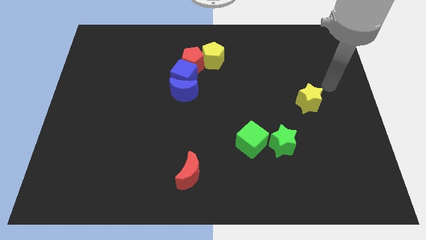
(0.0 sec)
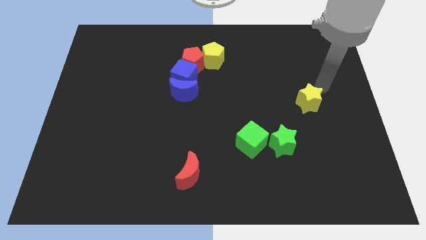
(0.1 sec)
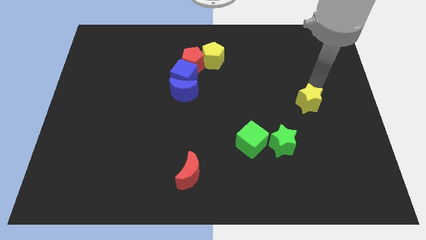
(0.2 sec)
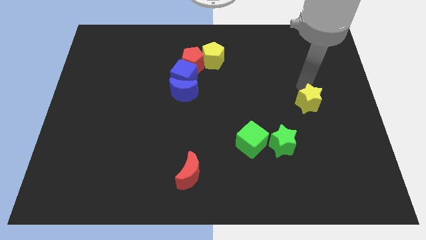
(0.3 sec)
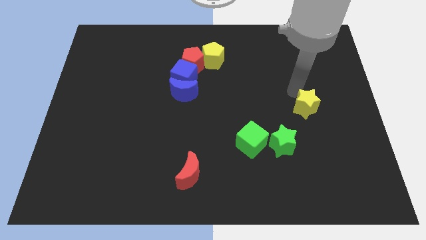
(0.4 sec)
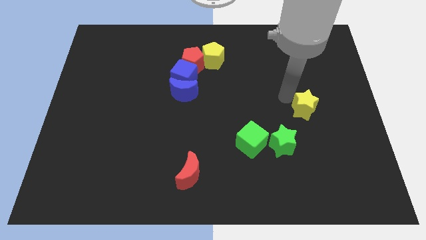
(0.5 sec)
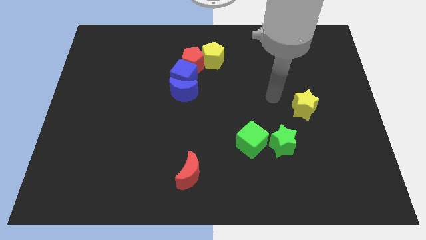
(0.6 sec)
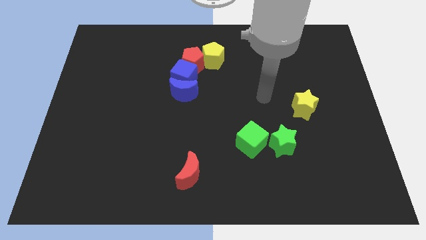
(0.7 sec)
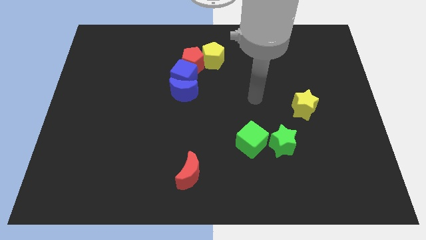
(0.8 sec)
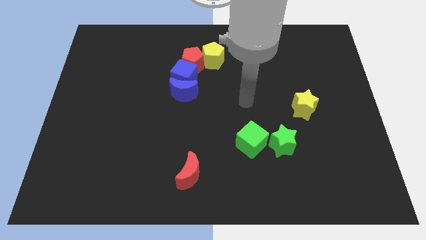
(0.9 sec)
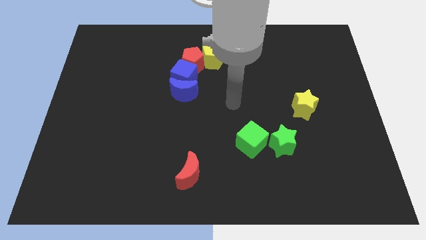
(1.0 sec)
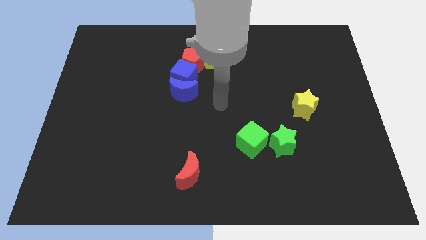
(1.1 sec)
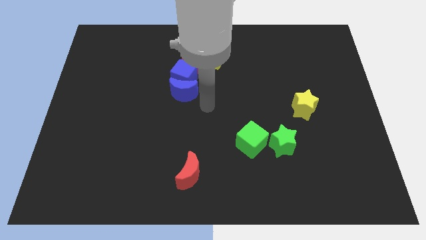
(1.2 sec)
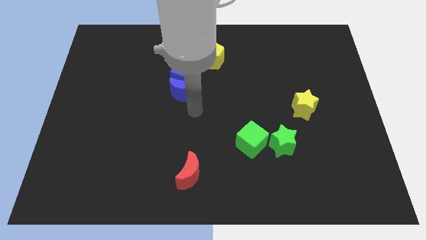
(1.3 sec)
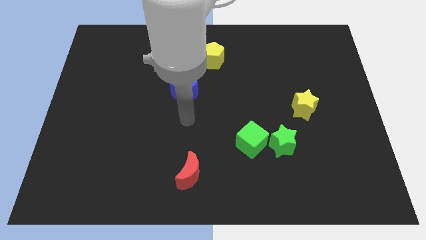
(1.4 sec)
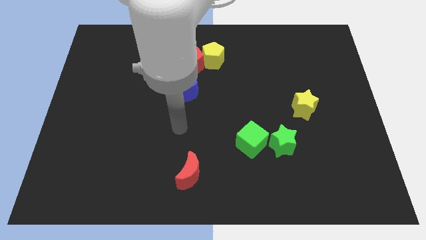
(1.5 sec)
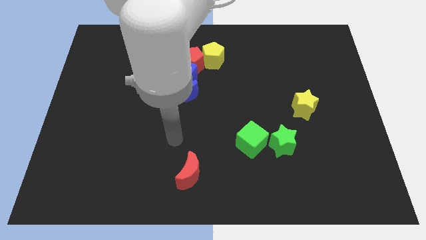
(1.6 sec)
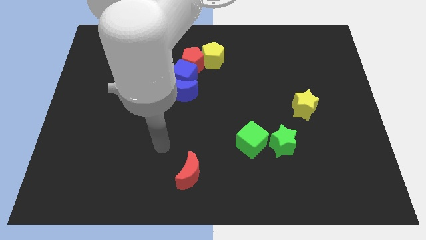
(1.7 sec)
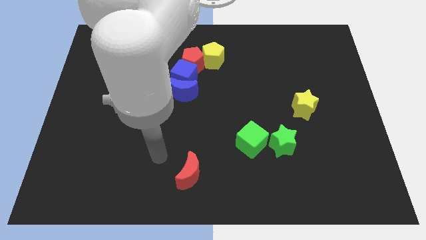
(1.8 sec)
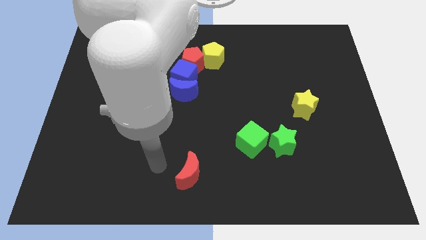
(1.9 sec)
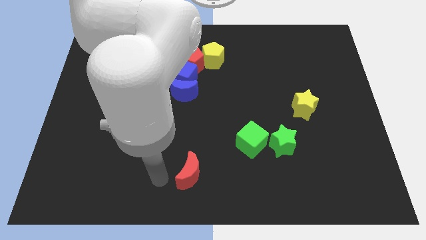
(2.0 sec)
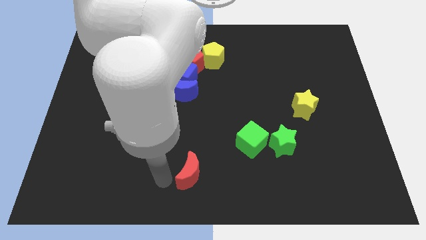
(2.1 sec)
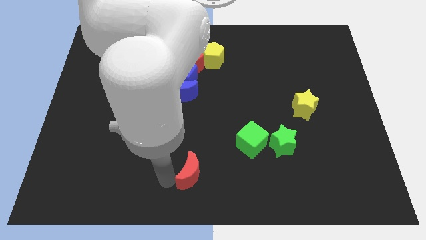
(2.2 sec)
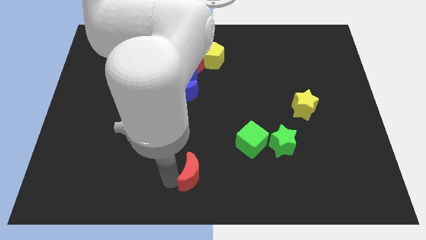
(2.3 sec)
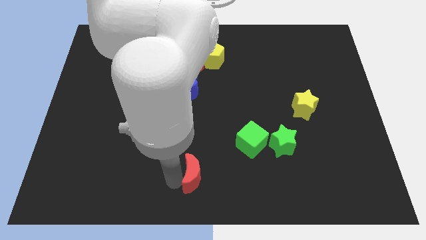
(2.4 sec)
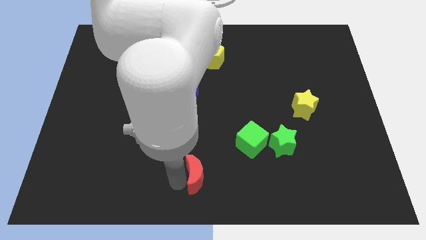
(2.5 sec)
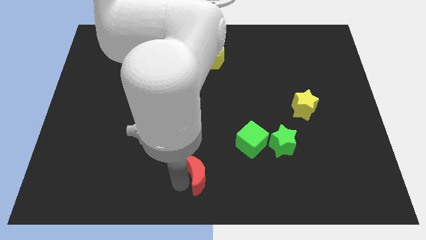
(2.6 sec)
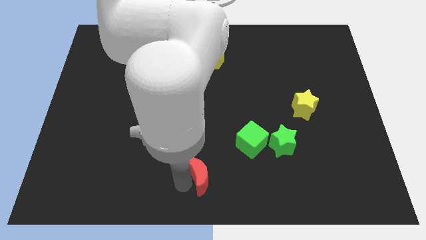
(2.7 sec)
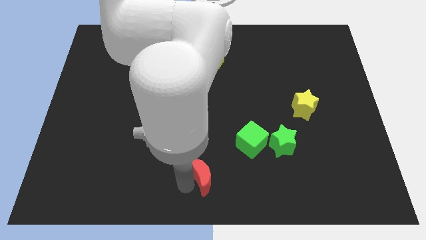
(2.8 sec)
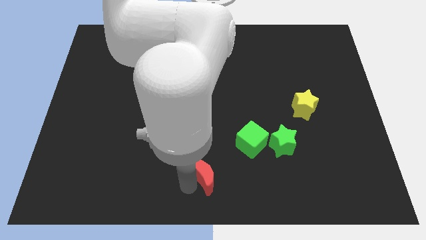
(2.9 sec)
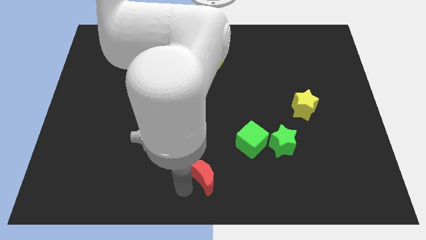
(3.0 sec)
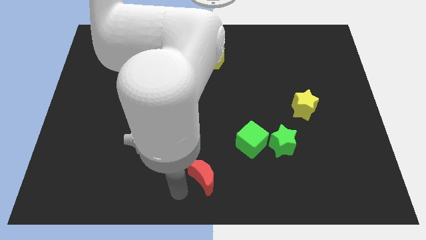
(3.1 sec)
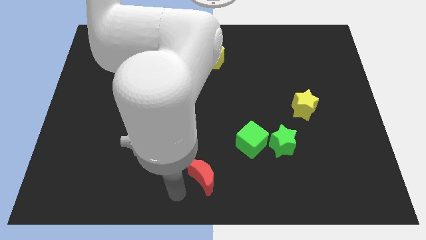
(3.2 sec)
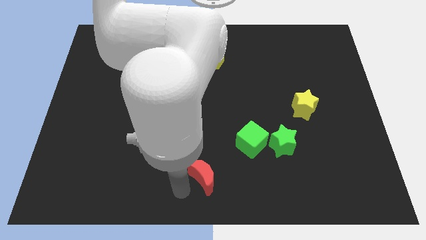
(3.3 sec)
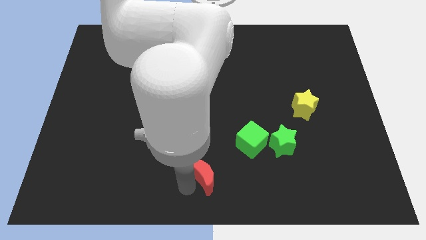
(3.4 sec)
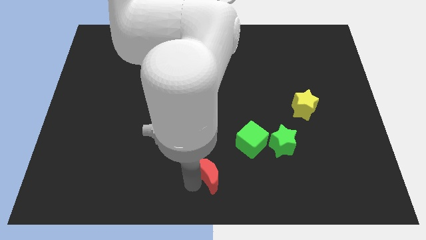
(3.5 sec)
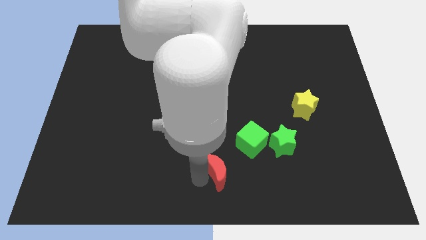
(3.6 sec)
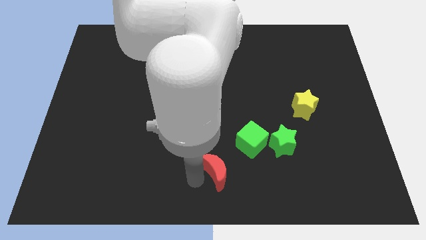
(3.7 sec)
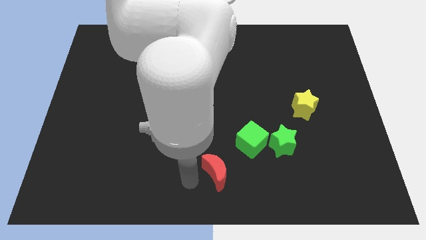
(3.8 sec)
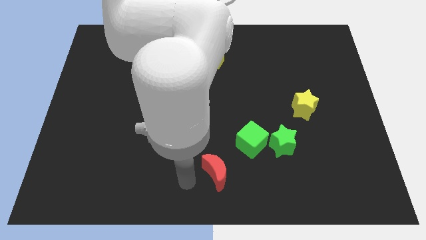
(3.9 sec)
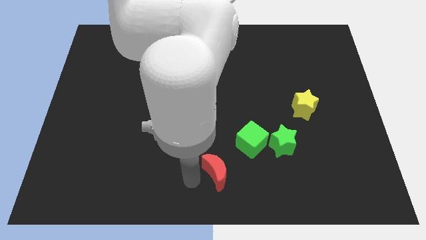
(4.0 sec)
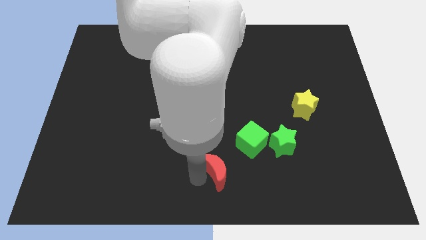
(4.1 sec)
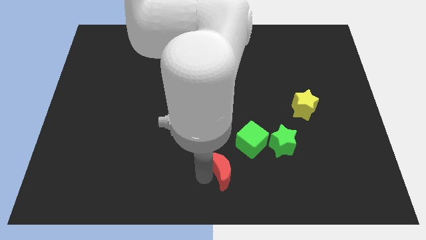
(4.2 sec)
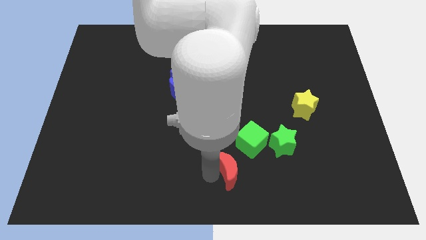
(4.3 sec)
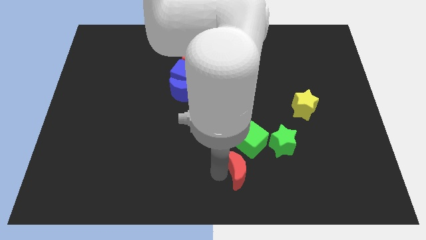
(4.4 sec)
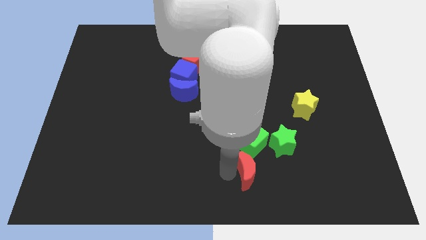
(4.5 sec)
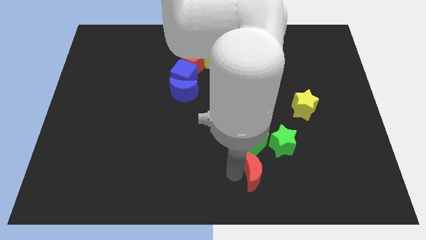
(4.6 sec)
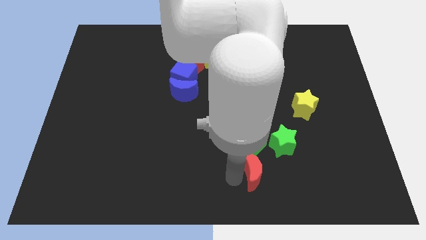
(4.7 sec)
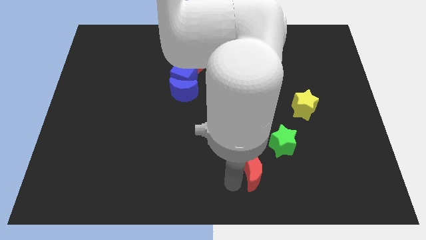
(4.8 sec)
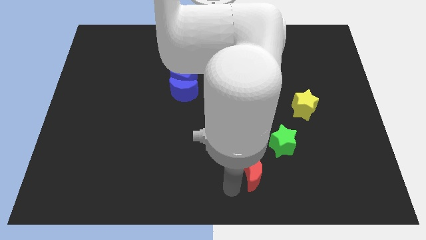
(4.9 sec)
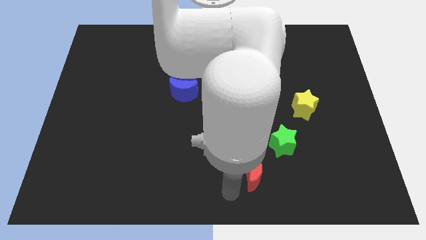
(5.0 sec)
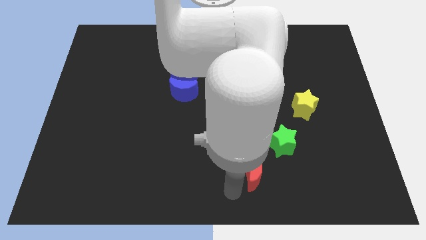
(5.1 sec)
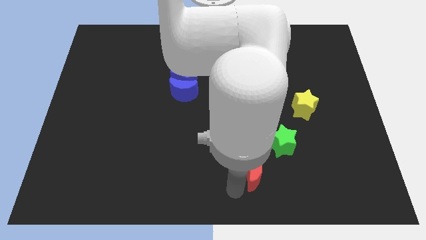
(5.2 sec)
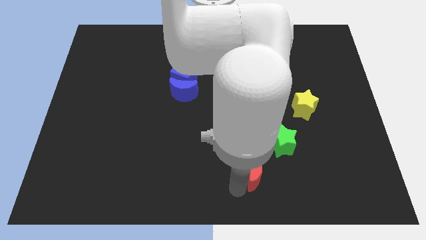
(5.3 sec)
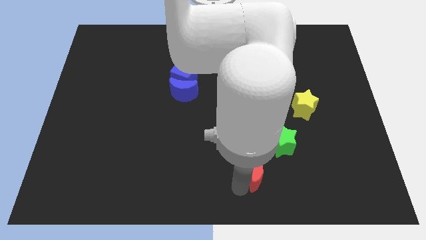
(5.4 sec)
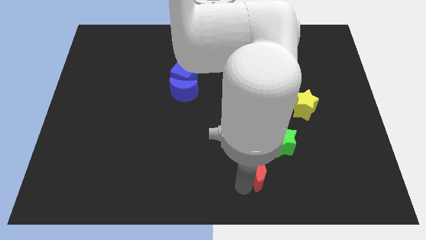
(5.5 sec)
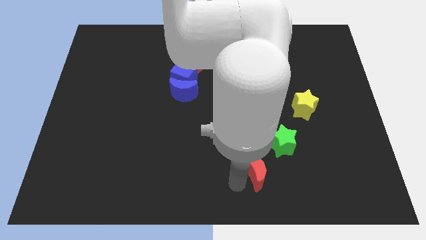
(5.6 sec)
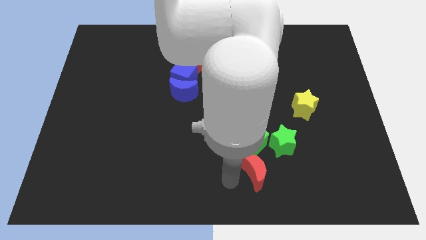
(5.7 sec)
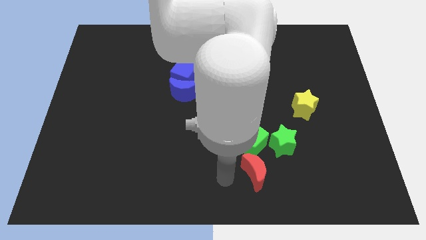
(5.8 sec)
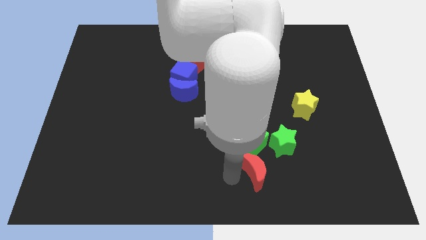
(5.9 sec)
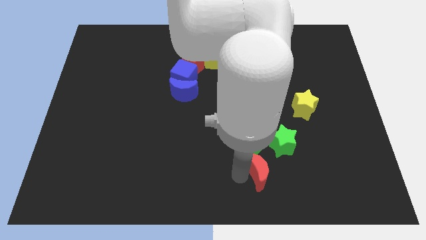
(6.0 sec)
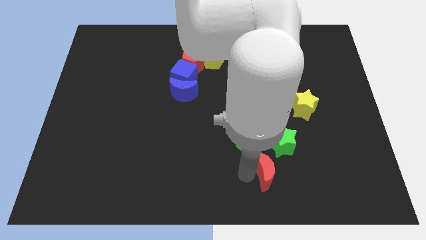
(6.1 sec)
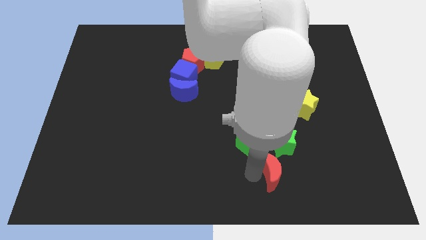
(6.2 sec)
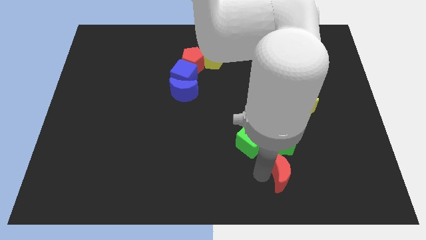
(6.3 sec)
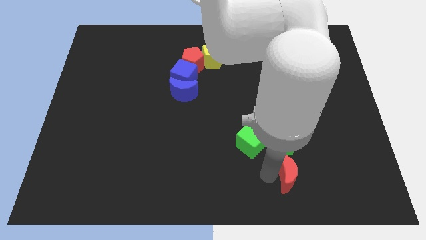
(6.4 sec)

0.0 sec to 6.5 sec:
push the red moon to the right

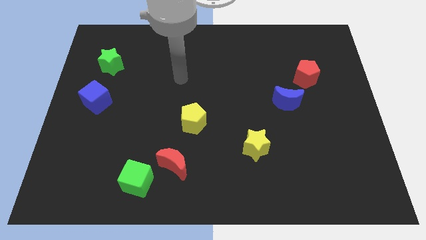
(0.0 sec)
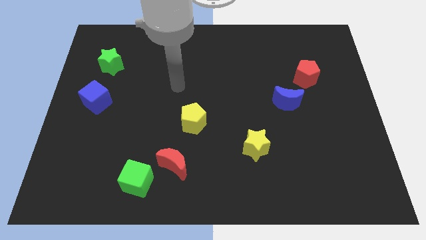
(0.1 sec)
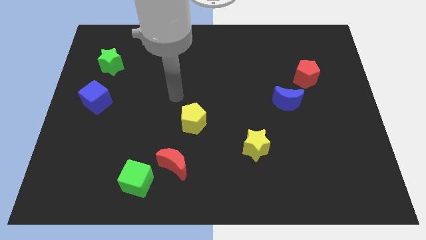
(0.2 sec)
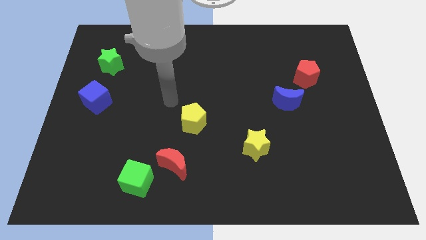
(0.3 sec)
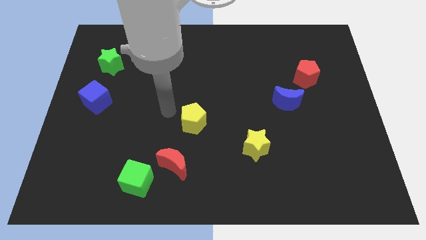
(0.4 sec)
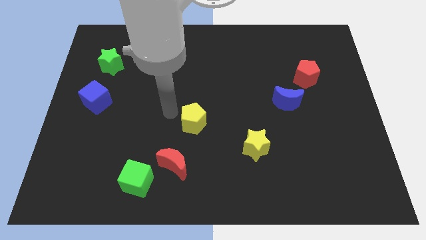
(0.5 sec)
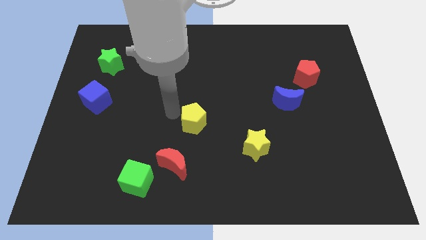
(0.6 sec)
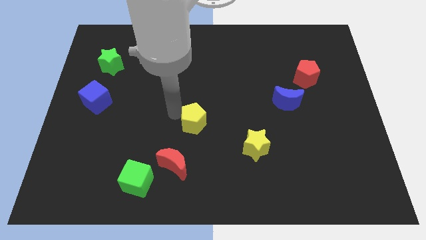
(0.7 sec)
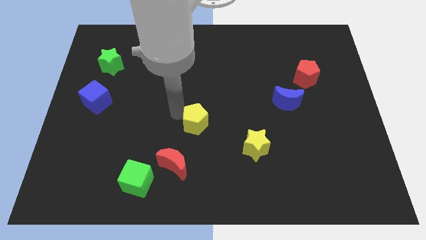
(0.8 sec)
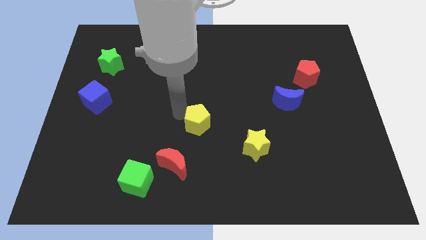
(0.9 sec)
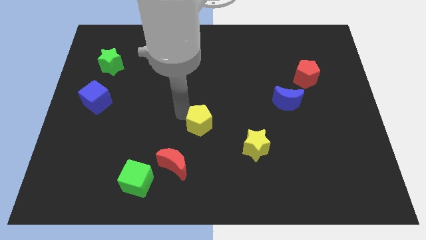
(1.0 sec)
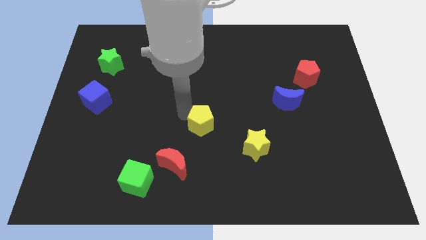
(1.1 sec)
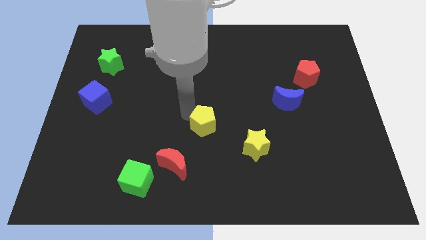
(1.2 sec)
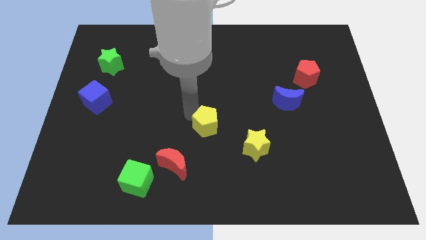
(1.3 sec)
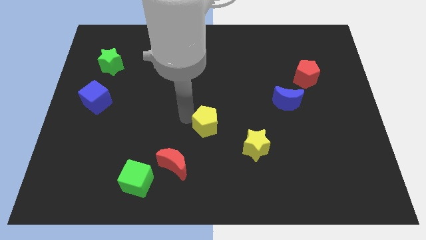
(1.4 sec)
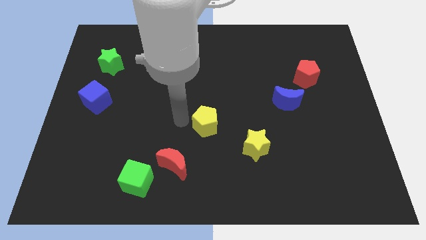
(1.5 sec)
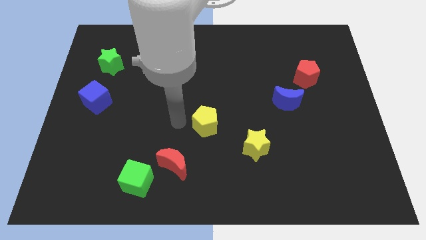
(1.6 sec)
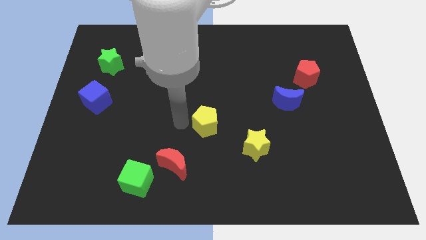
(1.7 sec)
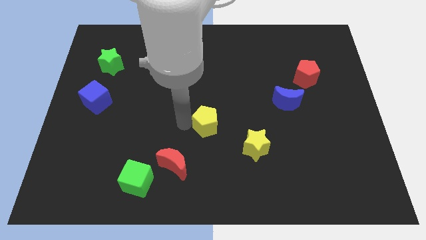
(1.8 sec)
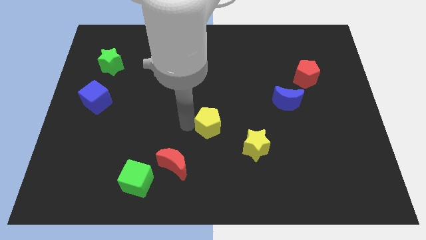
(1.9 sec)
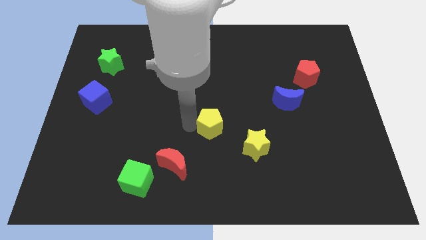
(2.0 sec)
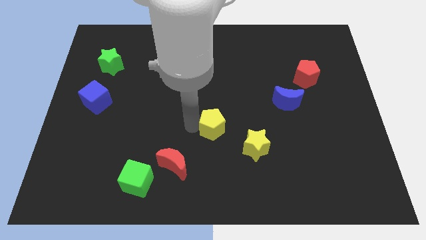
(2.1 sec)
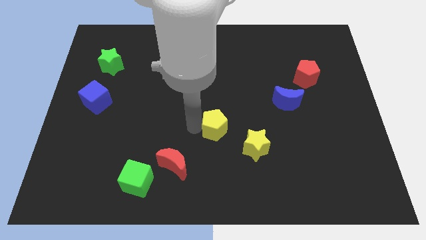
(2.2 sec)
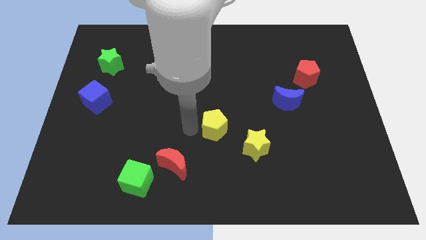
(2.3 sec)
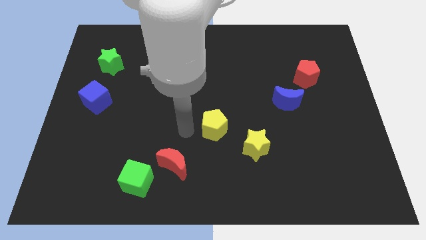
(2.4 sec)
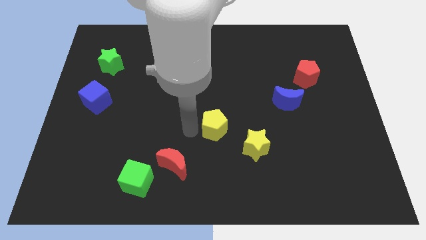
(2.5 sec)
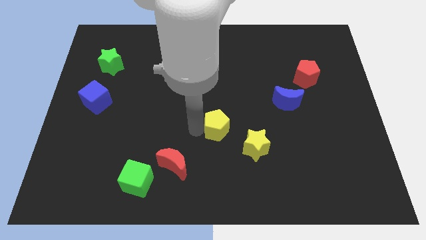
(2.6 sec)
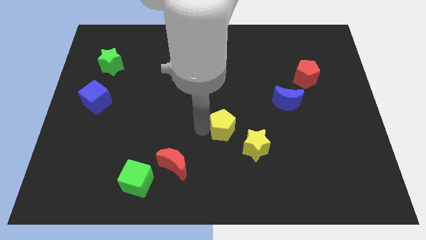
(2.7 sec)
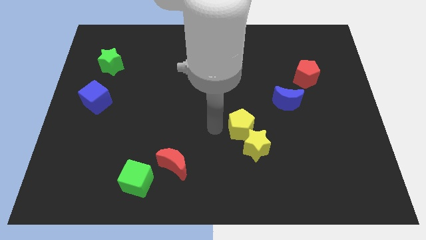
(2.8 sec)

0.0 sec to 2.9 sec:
push the yellow pentagon a bit to the right
